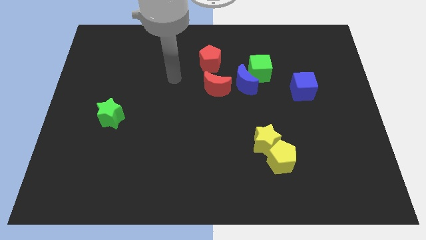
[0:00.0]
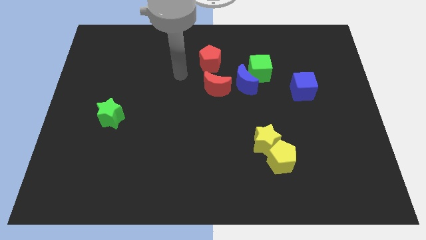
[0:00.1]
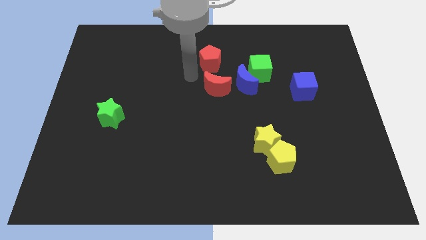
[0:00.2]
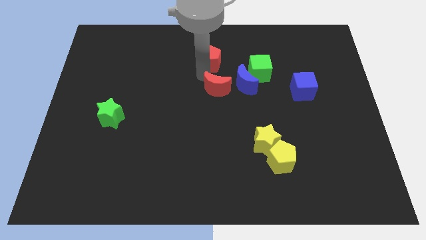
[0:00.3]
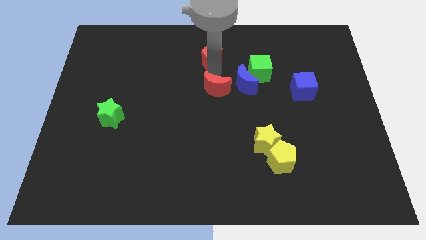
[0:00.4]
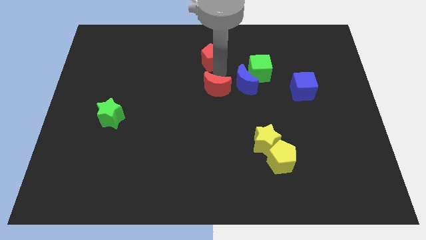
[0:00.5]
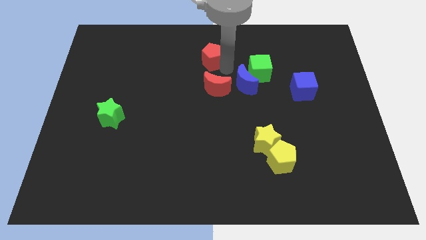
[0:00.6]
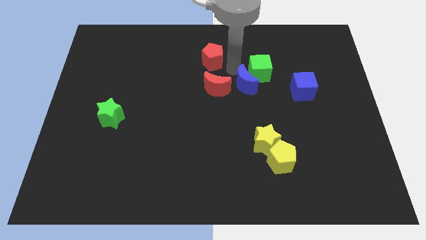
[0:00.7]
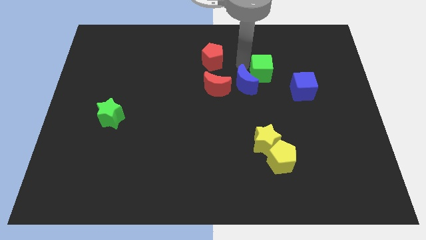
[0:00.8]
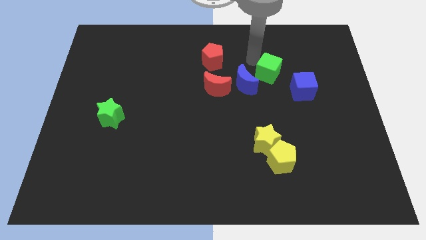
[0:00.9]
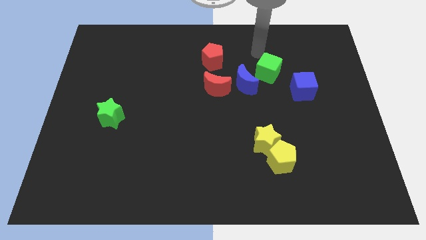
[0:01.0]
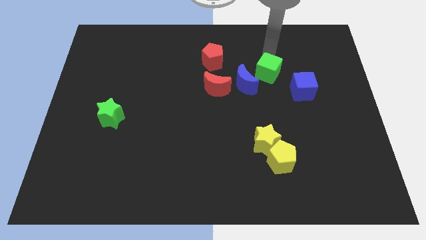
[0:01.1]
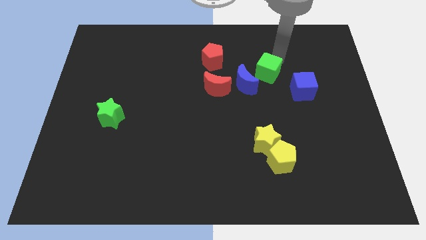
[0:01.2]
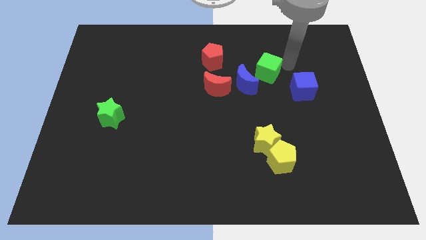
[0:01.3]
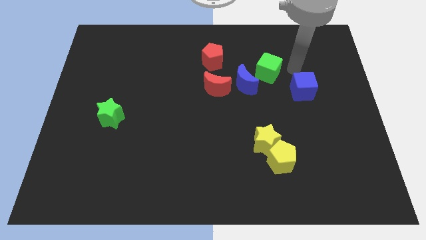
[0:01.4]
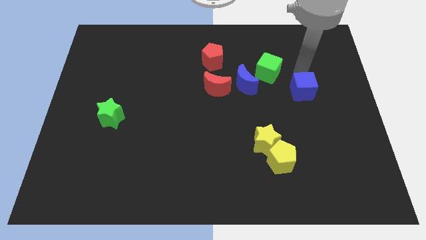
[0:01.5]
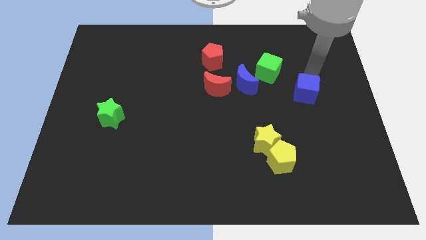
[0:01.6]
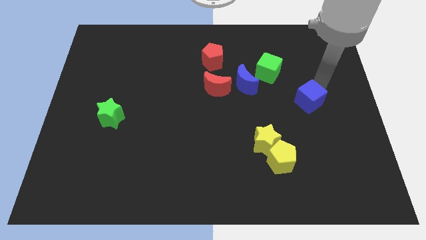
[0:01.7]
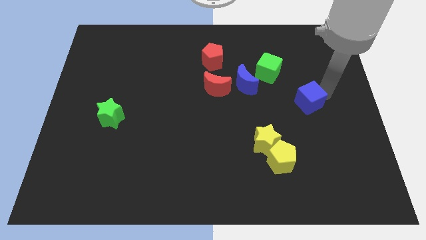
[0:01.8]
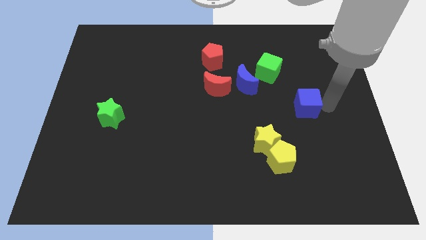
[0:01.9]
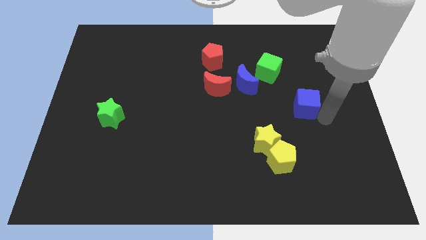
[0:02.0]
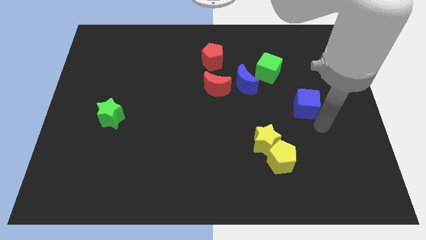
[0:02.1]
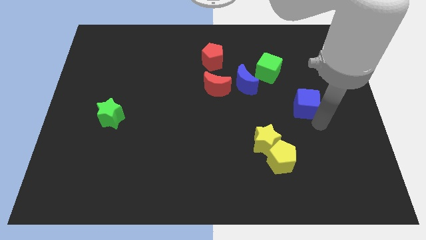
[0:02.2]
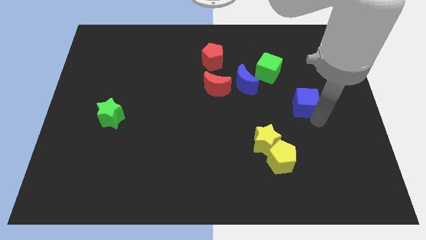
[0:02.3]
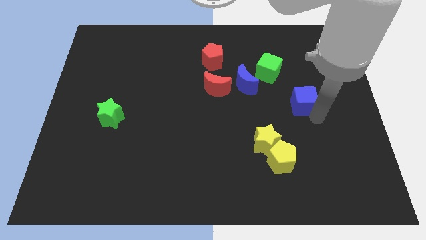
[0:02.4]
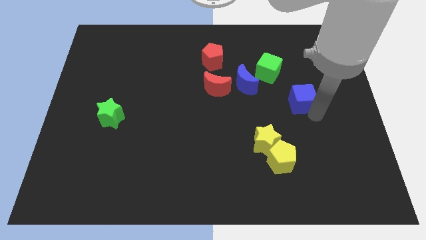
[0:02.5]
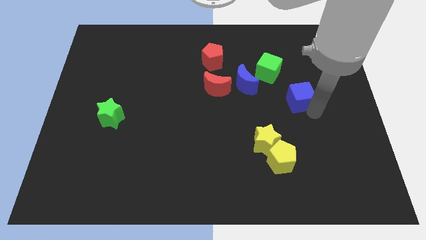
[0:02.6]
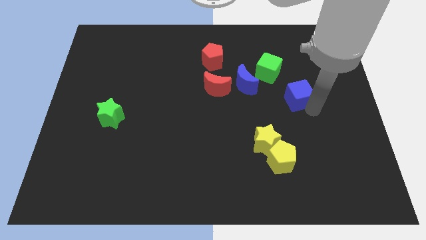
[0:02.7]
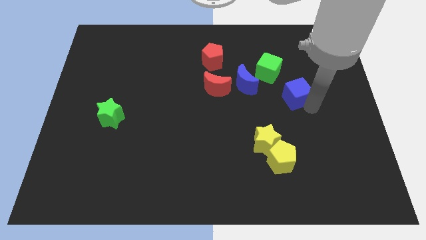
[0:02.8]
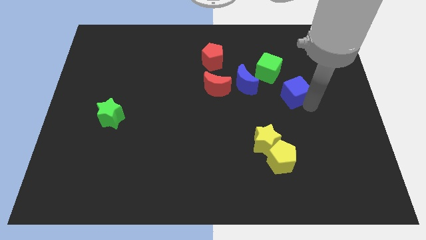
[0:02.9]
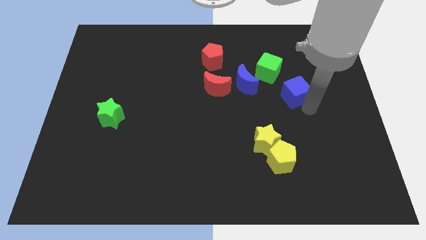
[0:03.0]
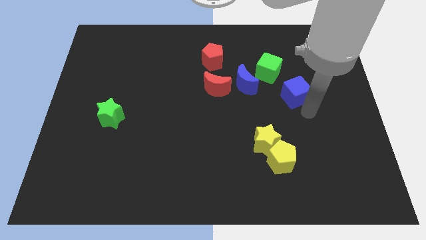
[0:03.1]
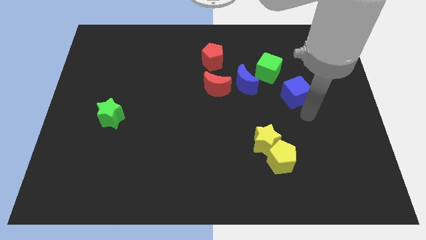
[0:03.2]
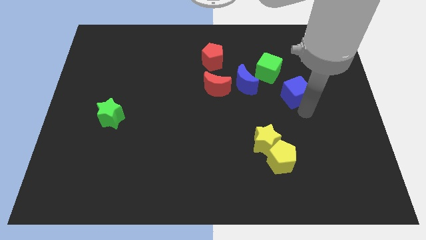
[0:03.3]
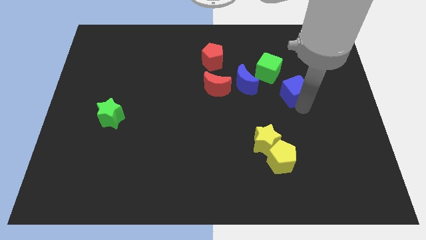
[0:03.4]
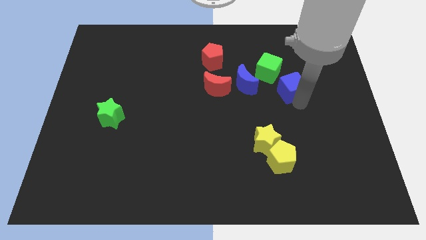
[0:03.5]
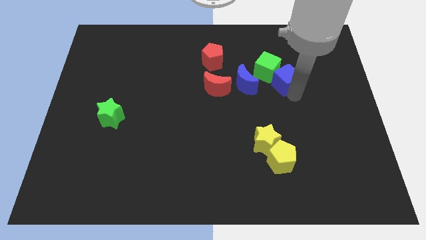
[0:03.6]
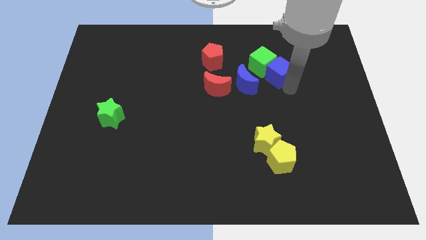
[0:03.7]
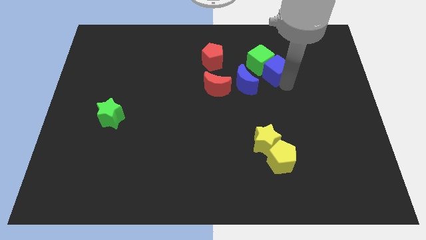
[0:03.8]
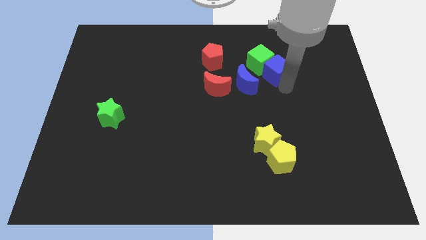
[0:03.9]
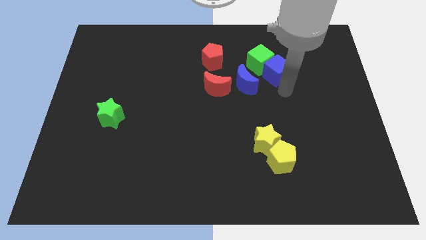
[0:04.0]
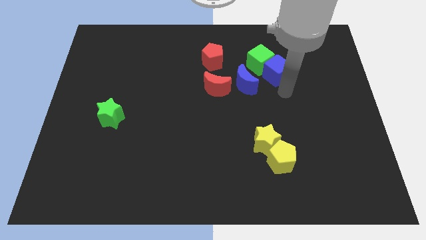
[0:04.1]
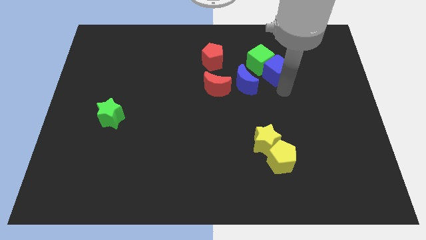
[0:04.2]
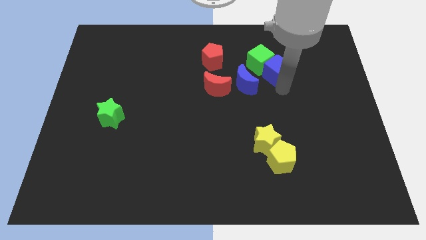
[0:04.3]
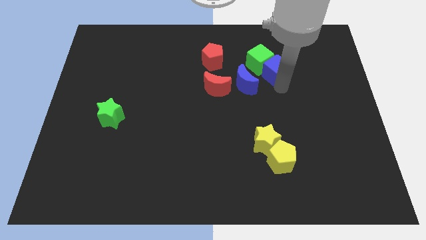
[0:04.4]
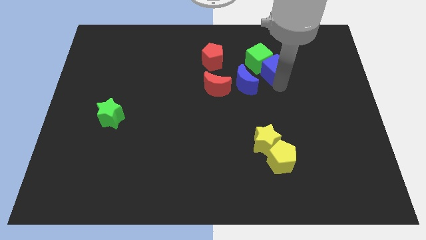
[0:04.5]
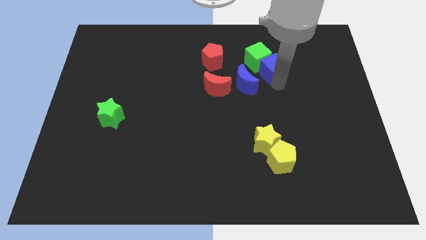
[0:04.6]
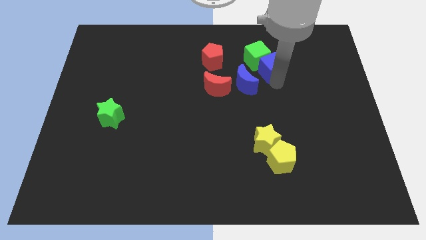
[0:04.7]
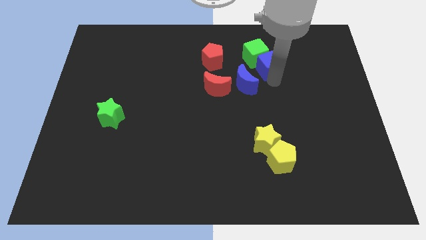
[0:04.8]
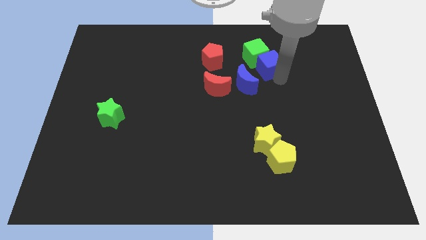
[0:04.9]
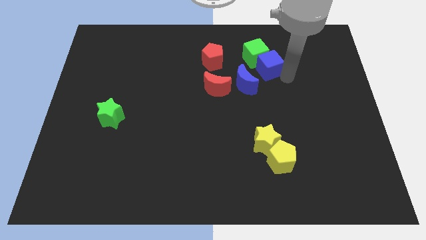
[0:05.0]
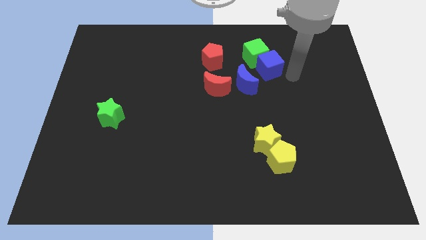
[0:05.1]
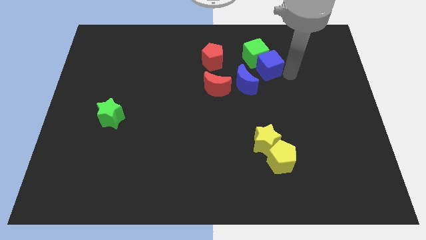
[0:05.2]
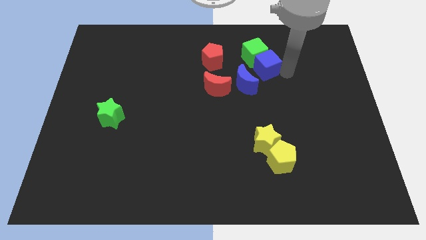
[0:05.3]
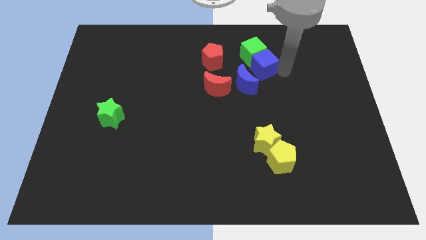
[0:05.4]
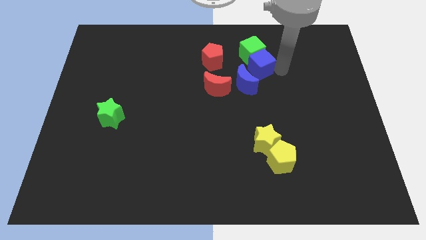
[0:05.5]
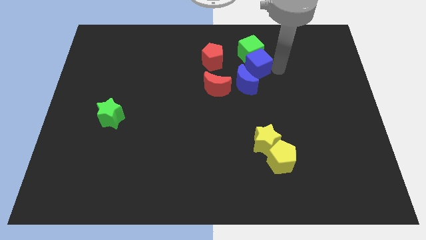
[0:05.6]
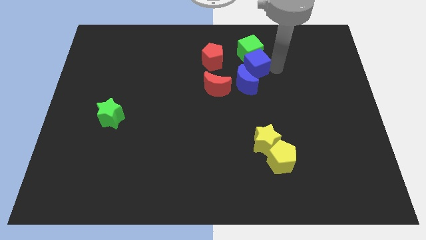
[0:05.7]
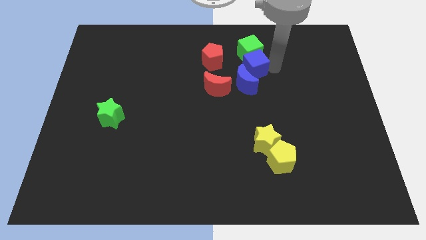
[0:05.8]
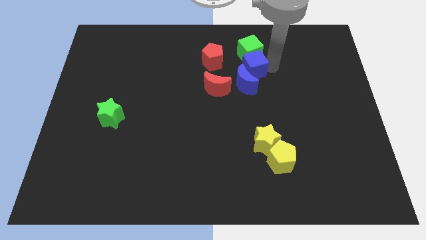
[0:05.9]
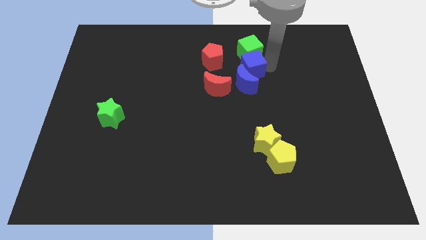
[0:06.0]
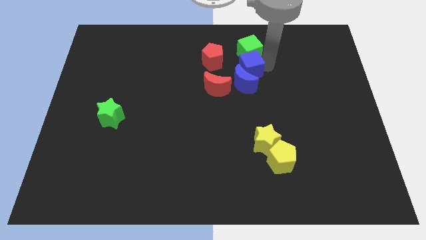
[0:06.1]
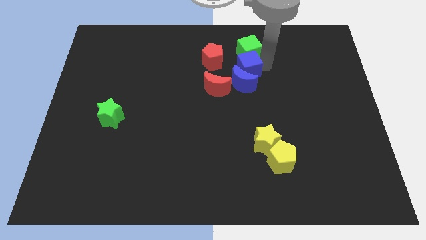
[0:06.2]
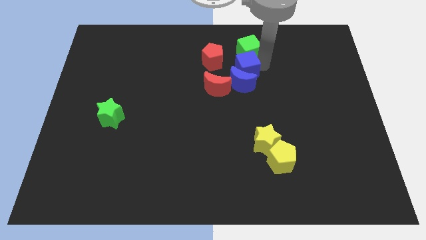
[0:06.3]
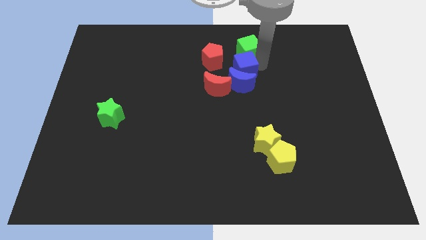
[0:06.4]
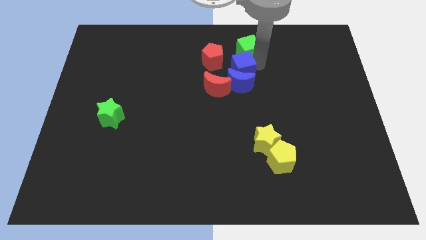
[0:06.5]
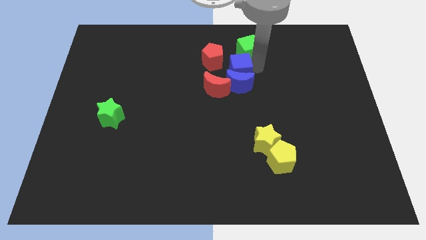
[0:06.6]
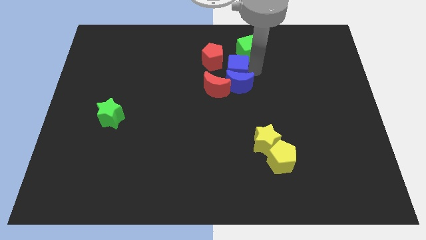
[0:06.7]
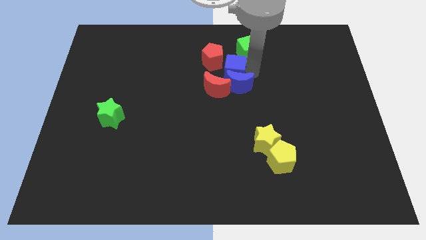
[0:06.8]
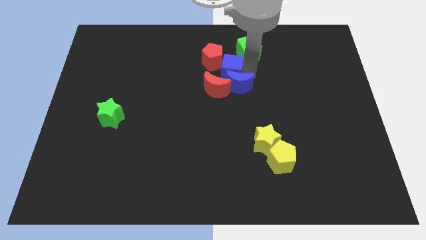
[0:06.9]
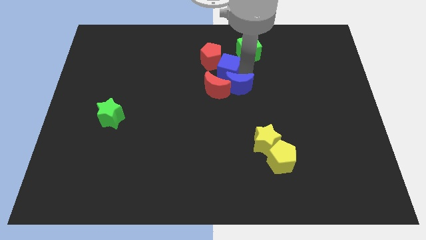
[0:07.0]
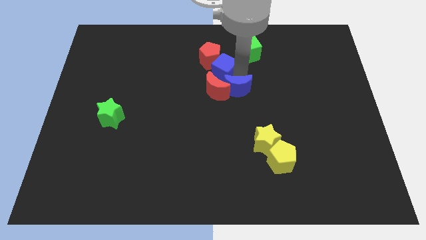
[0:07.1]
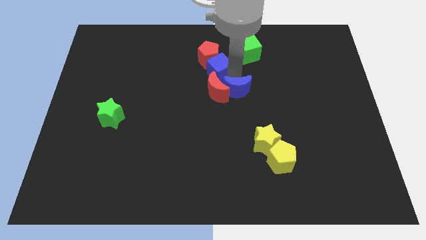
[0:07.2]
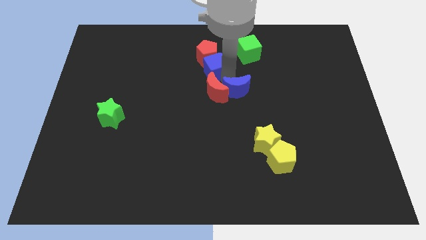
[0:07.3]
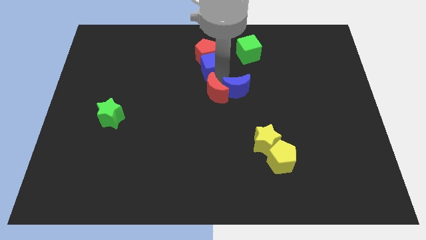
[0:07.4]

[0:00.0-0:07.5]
push the blue cube to the top left side of the red moon
